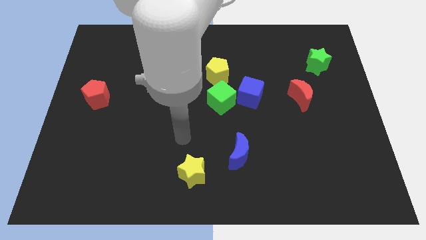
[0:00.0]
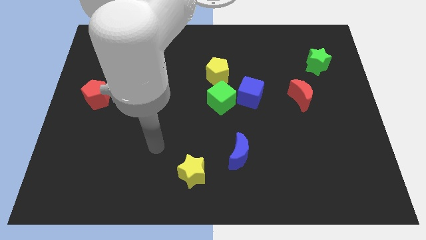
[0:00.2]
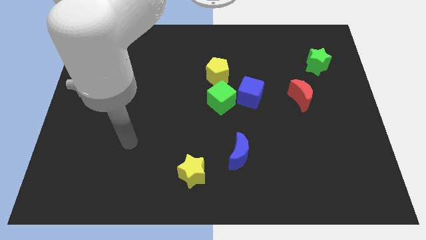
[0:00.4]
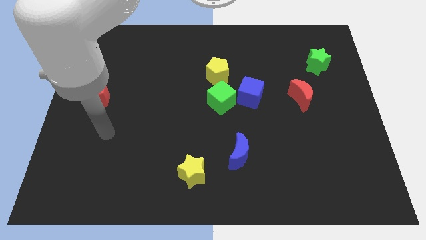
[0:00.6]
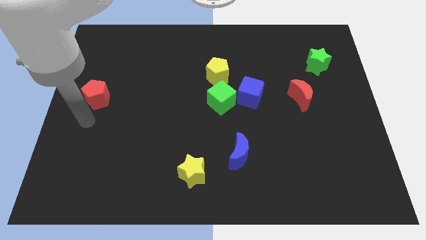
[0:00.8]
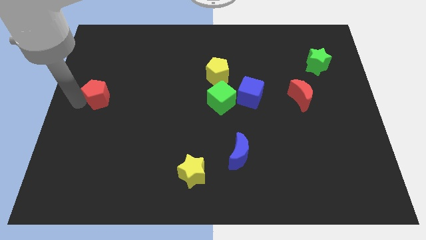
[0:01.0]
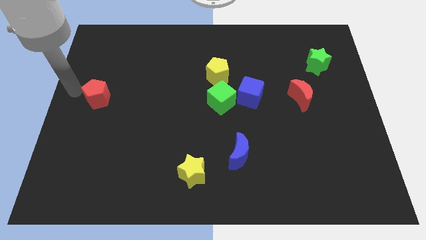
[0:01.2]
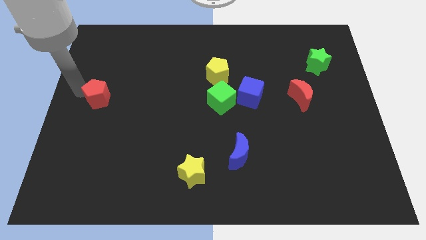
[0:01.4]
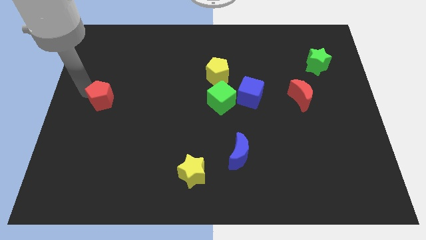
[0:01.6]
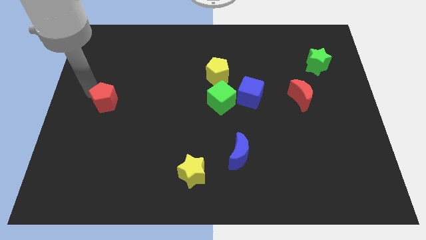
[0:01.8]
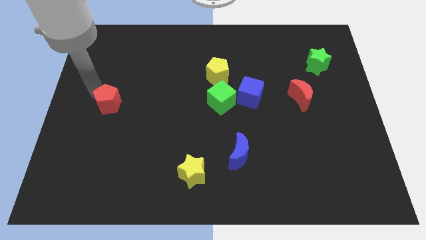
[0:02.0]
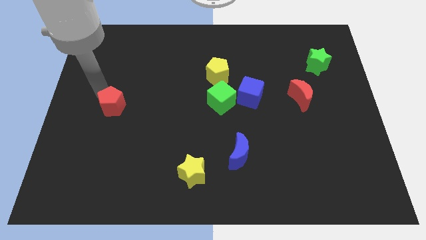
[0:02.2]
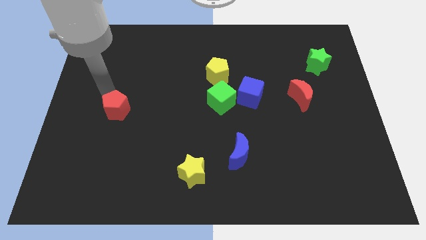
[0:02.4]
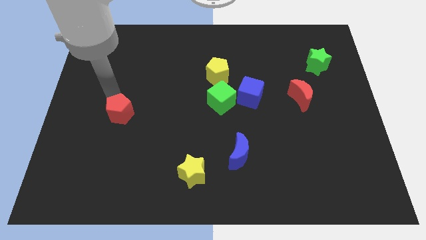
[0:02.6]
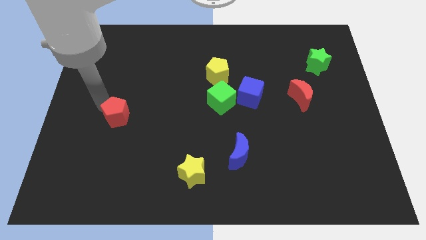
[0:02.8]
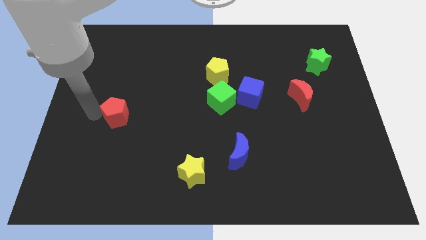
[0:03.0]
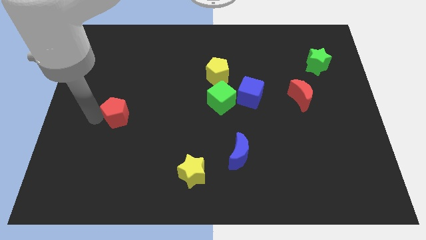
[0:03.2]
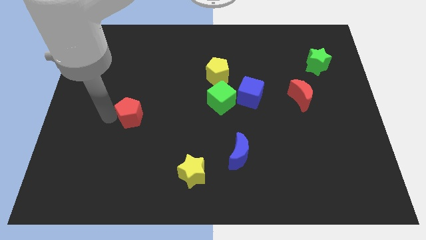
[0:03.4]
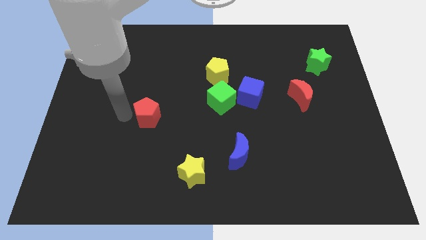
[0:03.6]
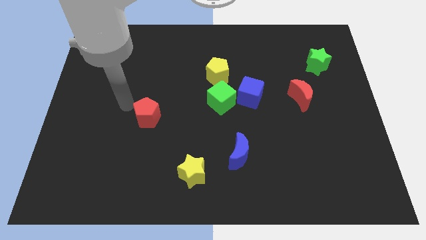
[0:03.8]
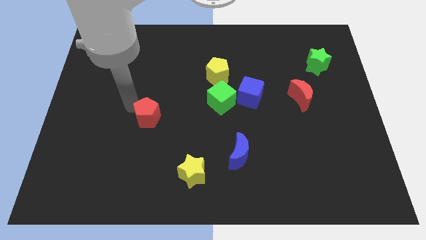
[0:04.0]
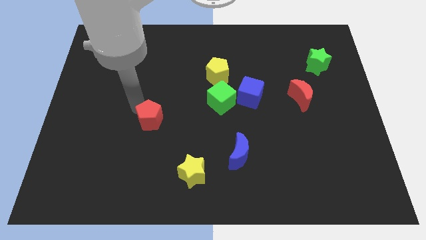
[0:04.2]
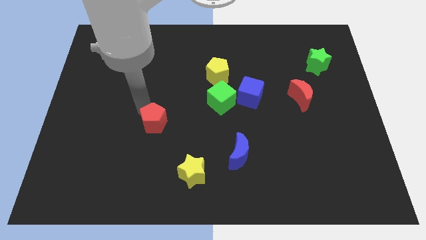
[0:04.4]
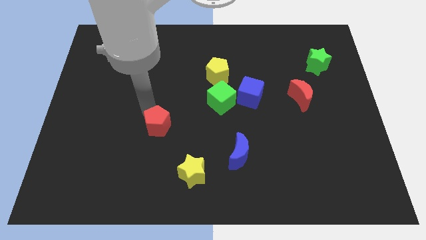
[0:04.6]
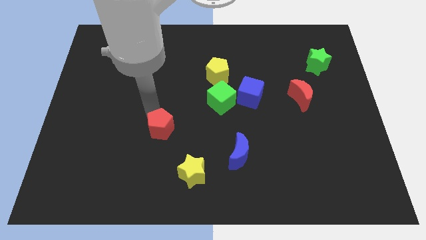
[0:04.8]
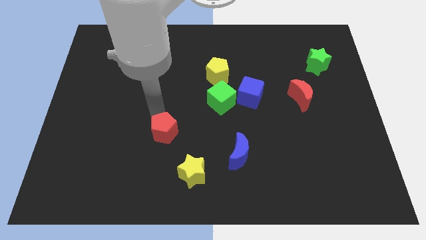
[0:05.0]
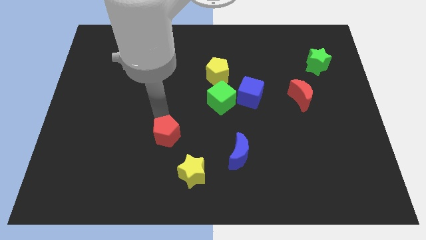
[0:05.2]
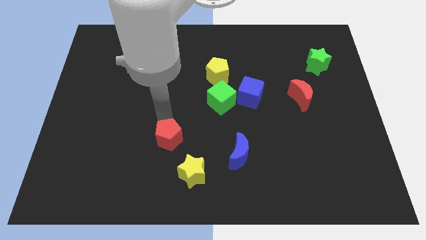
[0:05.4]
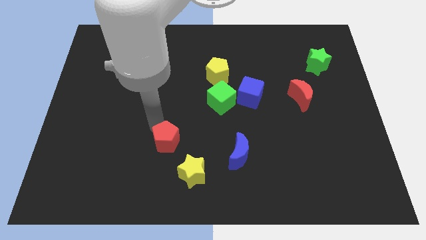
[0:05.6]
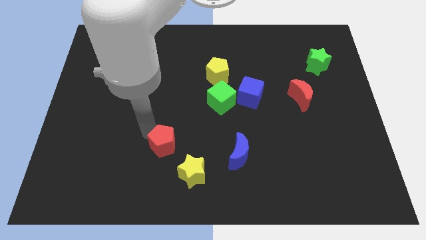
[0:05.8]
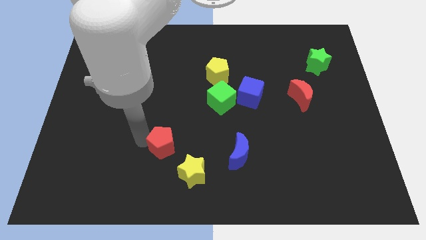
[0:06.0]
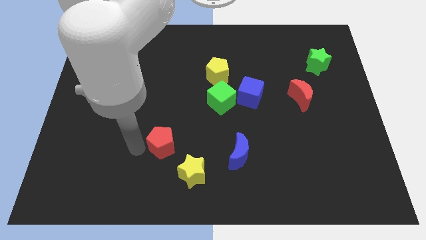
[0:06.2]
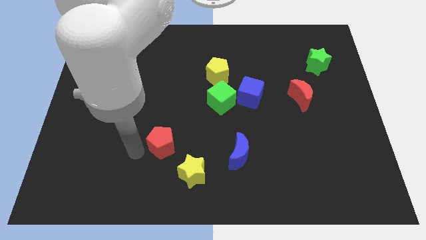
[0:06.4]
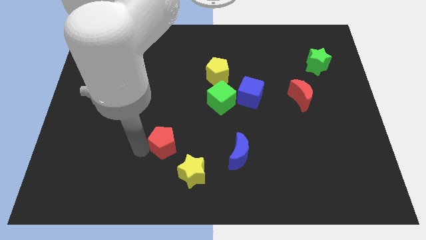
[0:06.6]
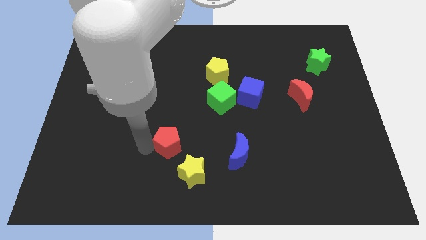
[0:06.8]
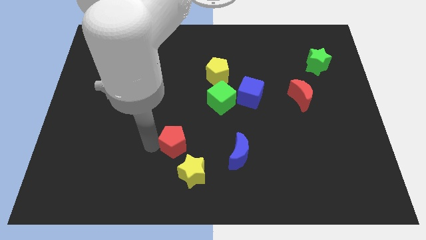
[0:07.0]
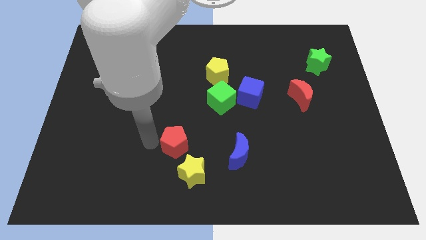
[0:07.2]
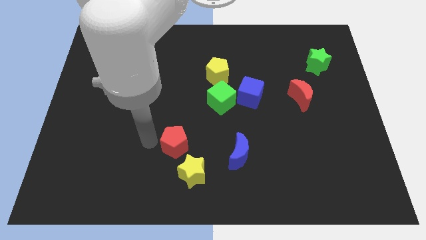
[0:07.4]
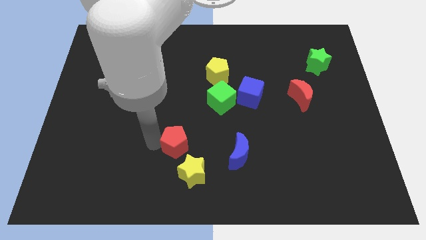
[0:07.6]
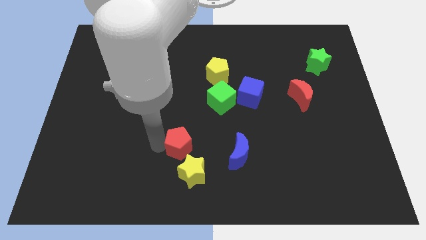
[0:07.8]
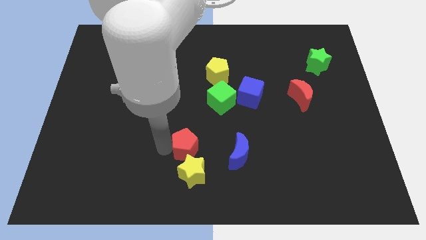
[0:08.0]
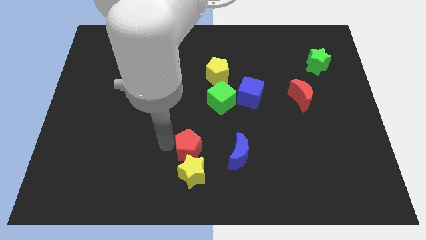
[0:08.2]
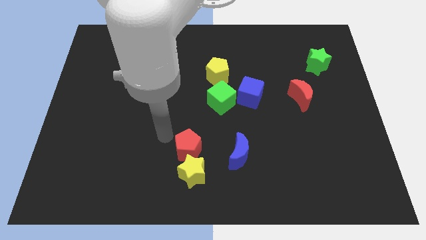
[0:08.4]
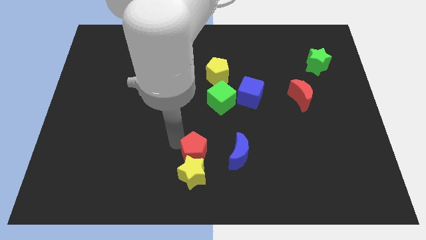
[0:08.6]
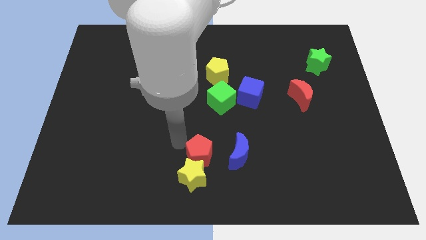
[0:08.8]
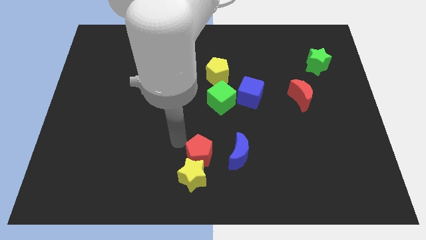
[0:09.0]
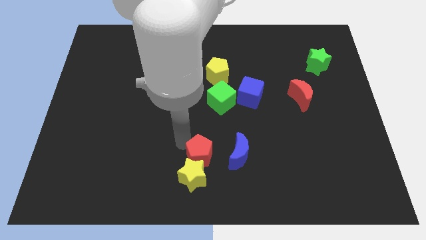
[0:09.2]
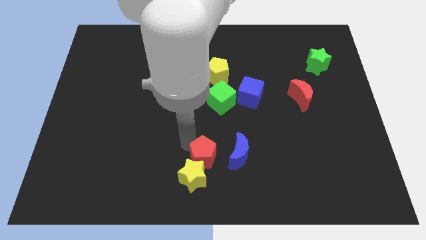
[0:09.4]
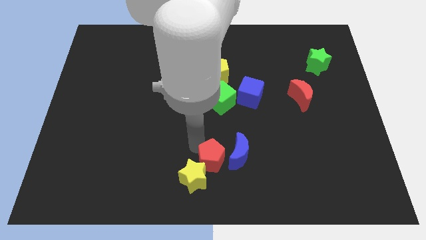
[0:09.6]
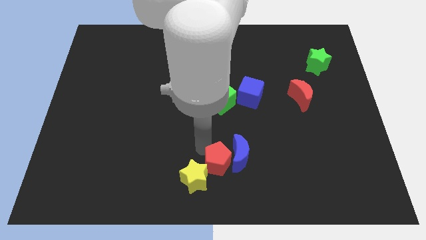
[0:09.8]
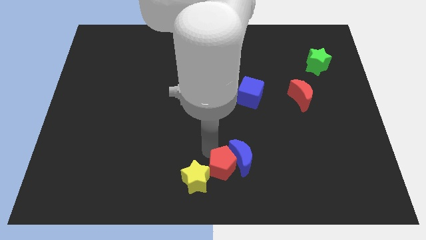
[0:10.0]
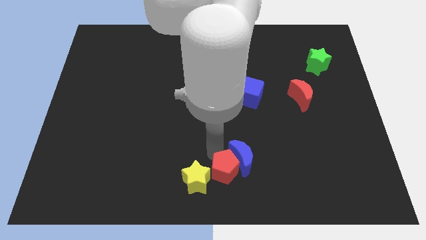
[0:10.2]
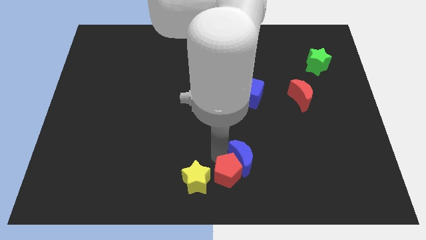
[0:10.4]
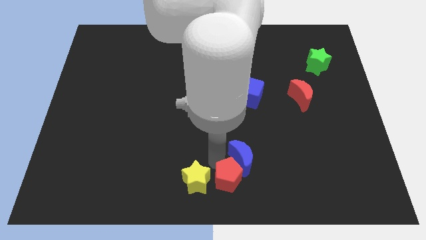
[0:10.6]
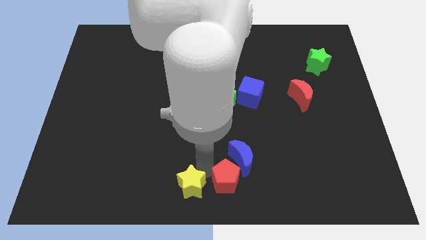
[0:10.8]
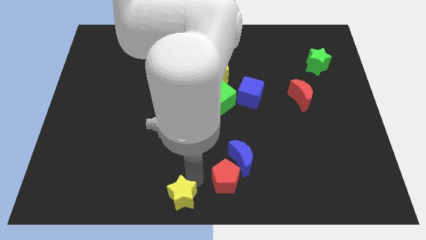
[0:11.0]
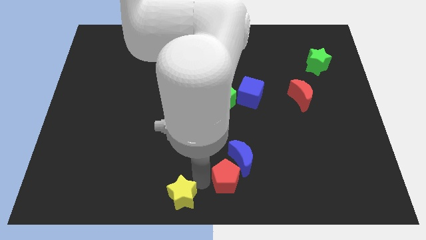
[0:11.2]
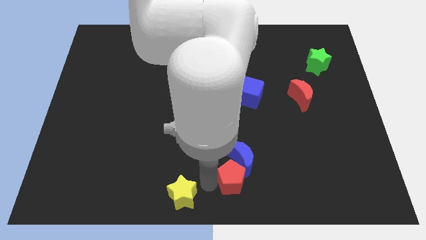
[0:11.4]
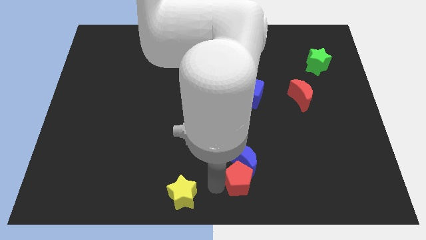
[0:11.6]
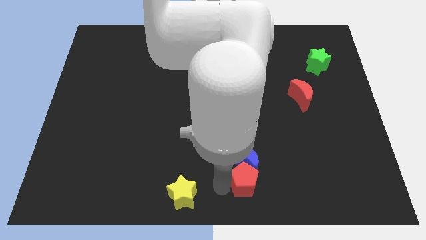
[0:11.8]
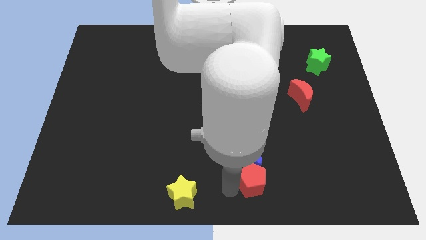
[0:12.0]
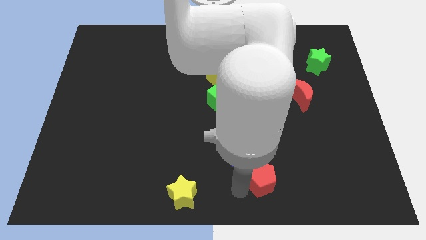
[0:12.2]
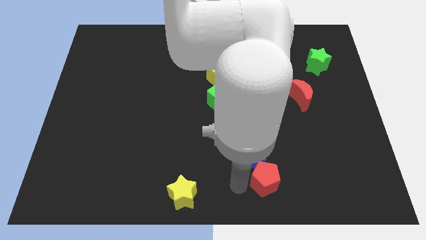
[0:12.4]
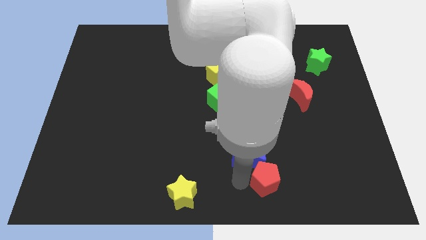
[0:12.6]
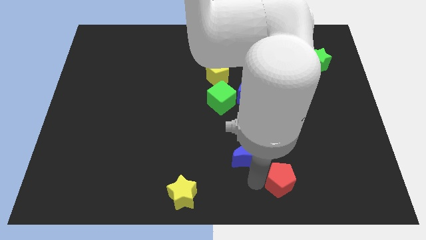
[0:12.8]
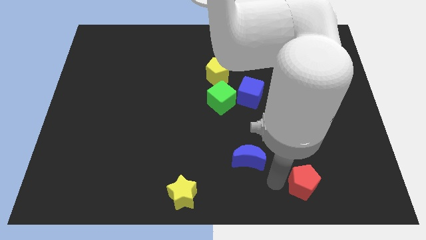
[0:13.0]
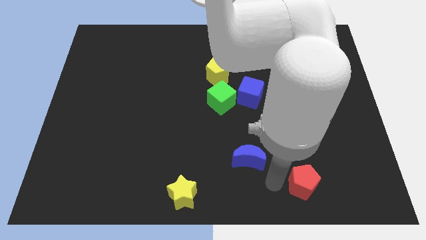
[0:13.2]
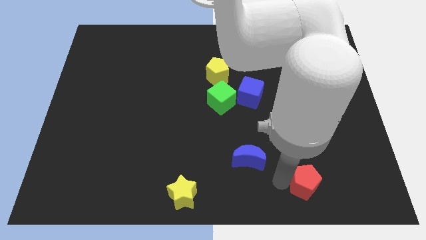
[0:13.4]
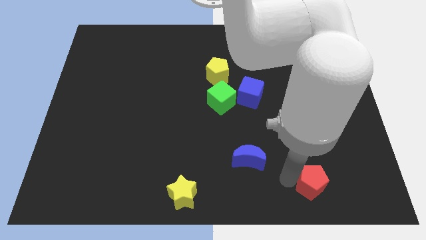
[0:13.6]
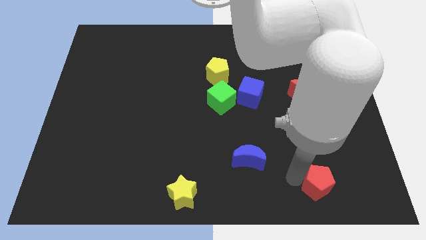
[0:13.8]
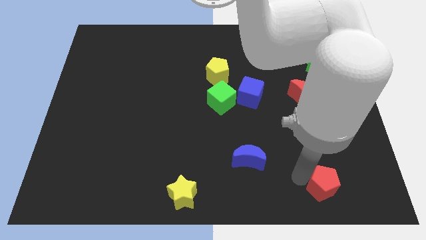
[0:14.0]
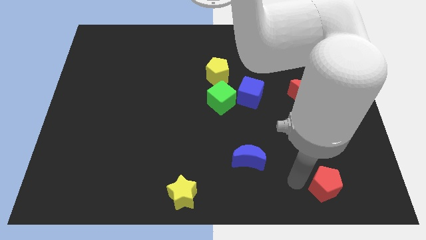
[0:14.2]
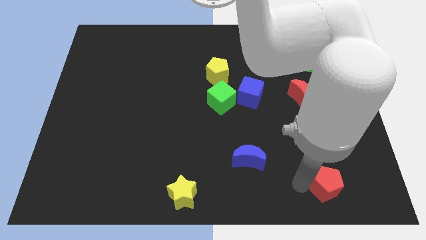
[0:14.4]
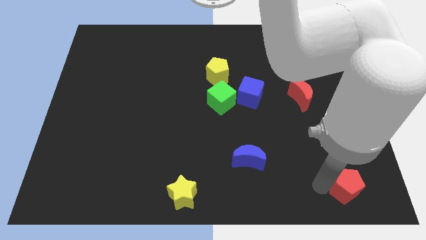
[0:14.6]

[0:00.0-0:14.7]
push the red pentagon to the bottom right of the board

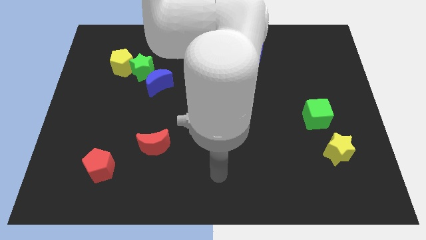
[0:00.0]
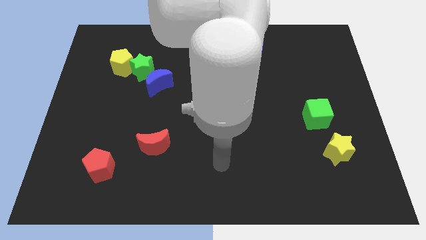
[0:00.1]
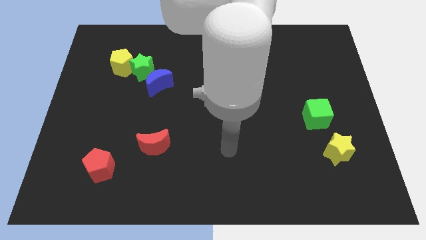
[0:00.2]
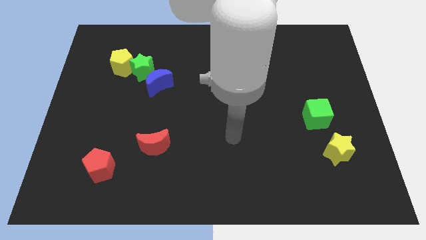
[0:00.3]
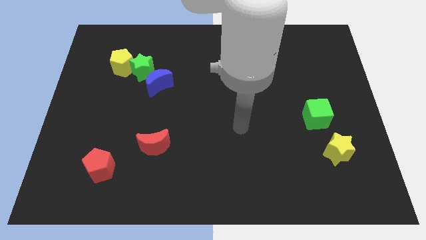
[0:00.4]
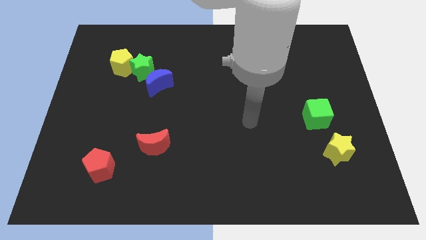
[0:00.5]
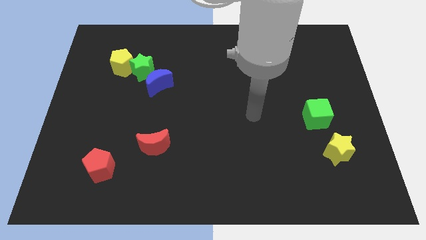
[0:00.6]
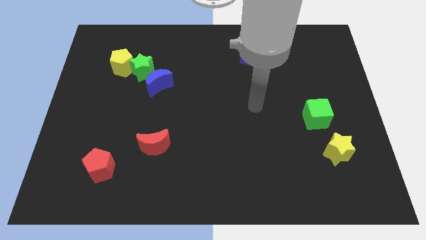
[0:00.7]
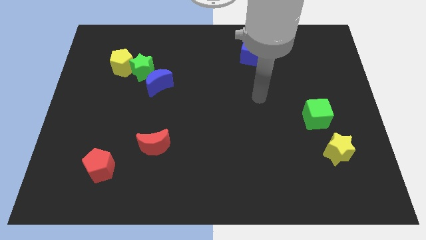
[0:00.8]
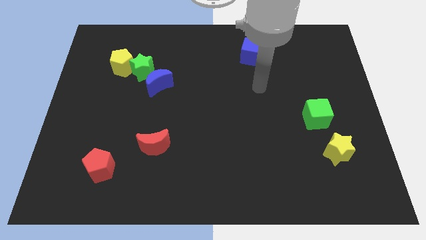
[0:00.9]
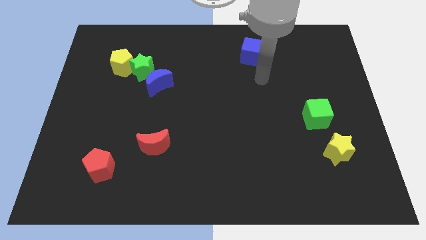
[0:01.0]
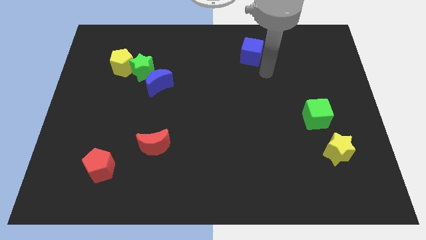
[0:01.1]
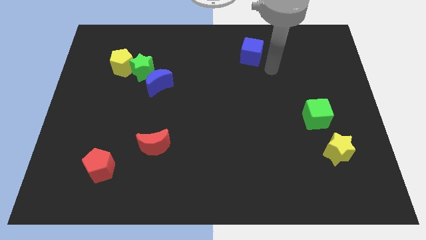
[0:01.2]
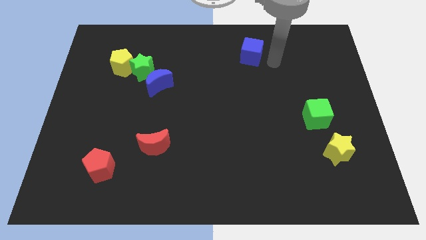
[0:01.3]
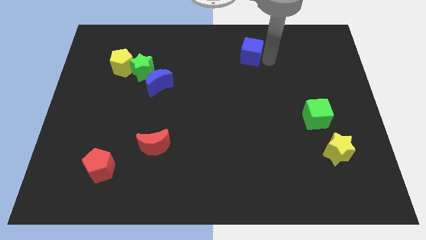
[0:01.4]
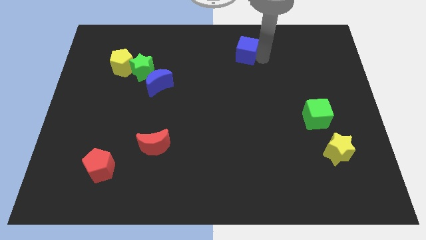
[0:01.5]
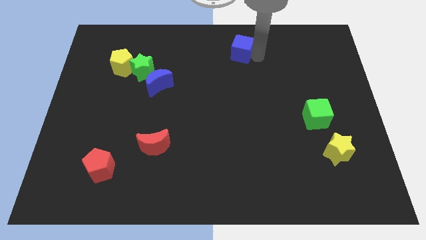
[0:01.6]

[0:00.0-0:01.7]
move the blue cube to the towards your base
